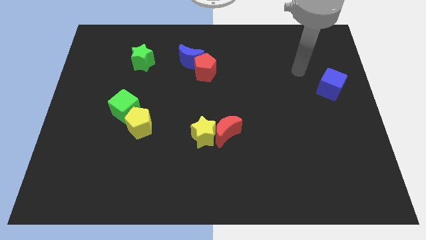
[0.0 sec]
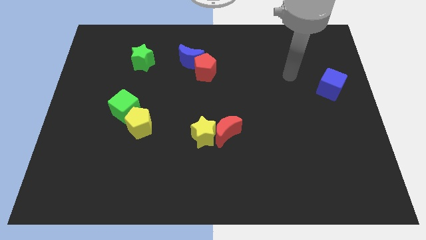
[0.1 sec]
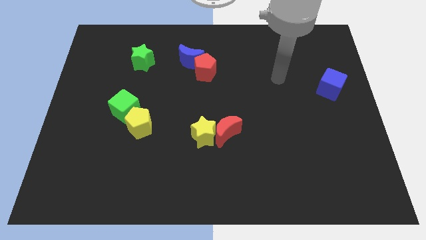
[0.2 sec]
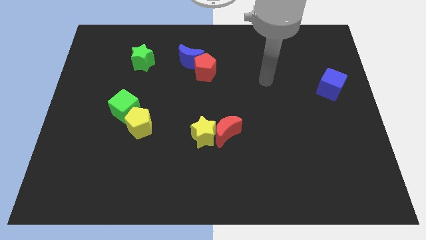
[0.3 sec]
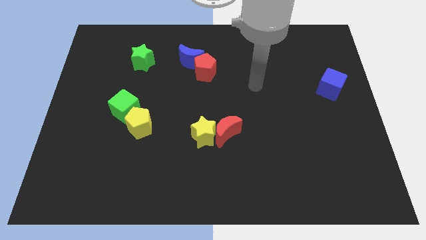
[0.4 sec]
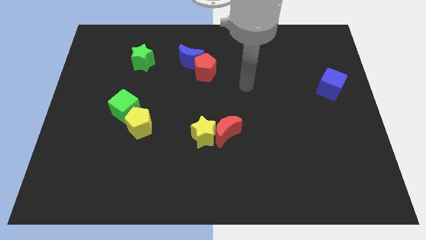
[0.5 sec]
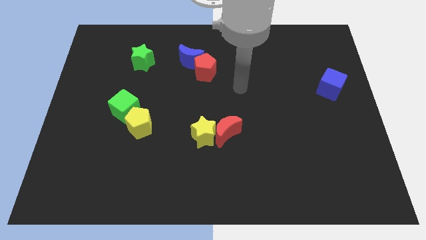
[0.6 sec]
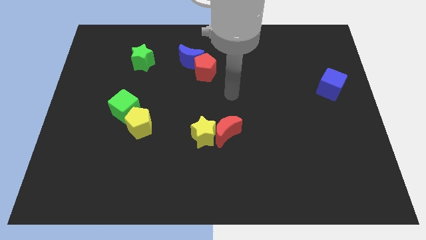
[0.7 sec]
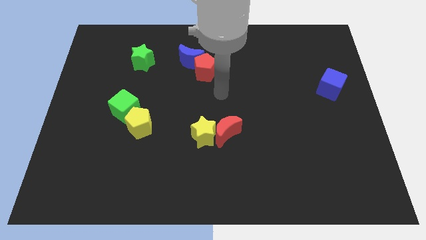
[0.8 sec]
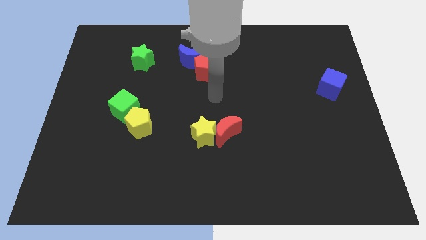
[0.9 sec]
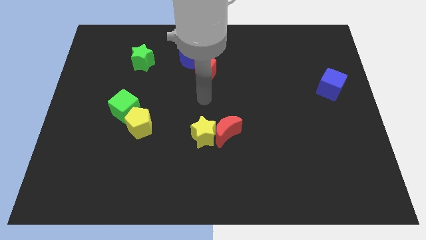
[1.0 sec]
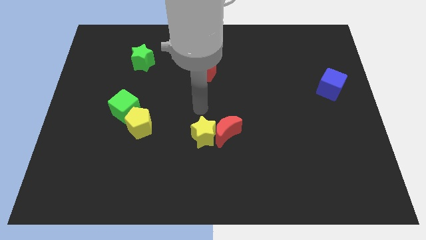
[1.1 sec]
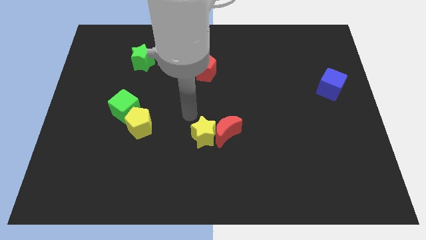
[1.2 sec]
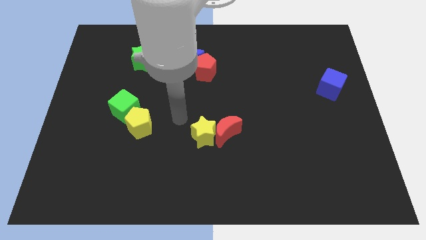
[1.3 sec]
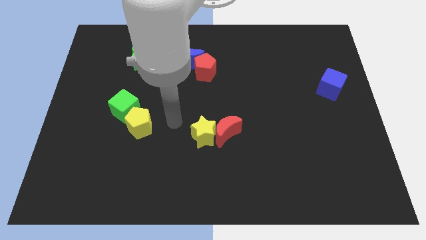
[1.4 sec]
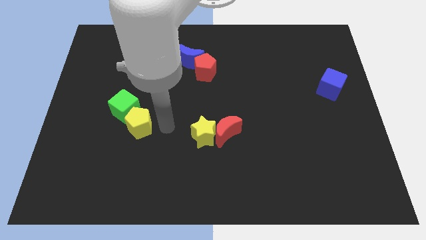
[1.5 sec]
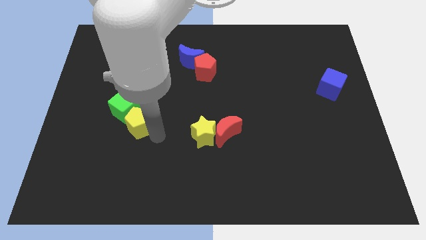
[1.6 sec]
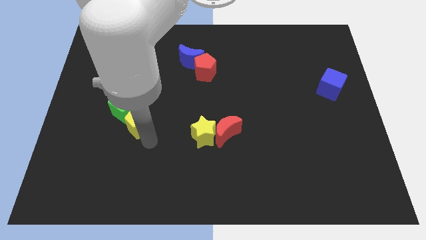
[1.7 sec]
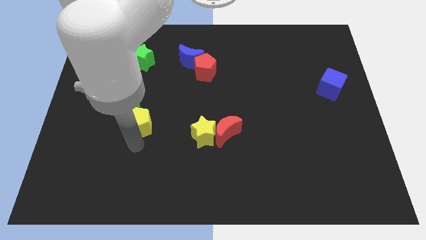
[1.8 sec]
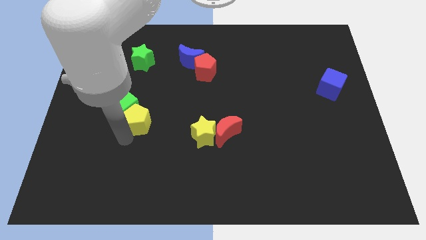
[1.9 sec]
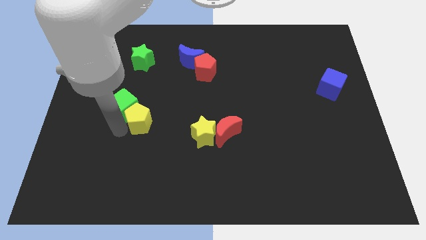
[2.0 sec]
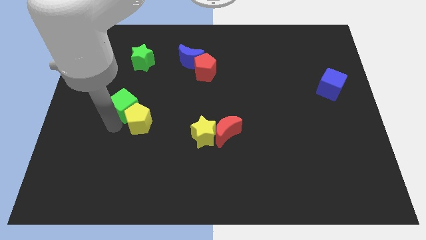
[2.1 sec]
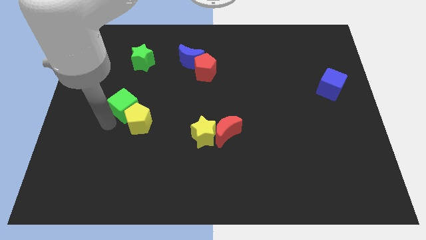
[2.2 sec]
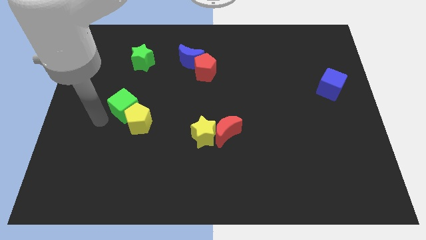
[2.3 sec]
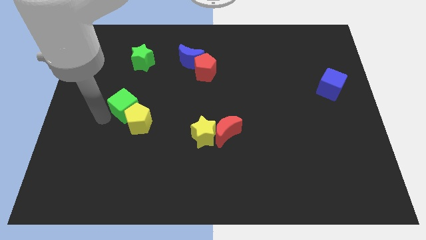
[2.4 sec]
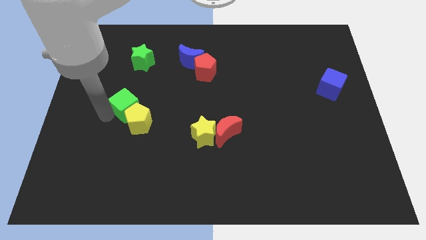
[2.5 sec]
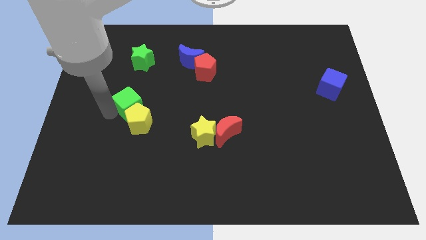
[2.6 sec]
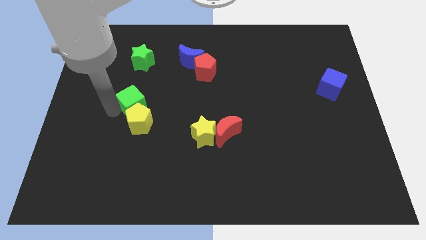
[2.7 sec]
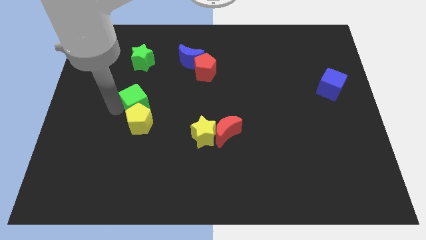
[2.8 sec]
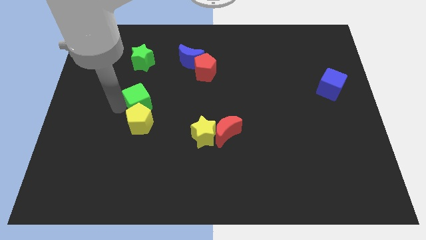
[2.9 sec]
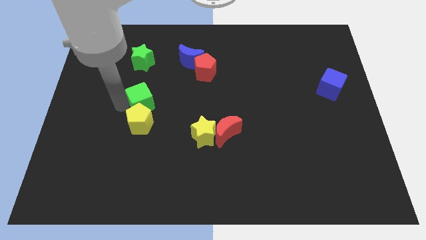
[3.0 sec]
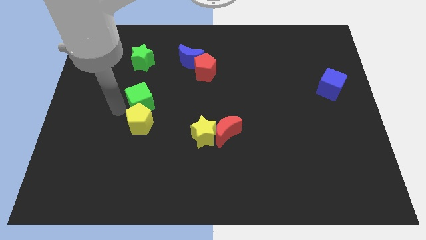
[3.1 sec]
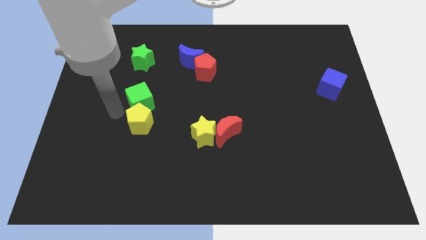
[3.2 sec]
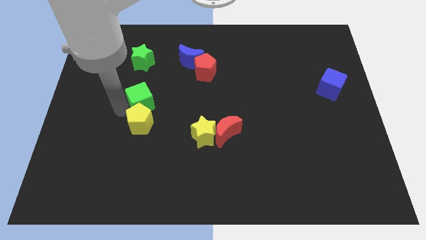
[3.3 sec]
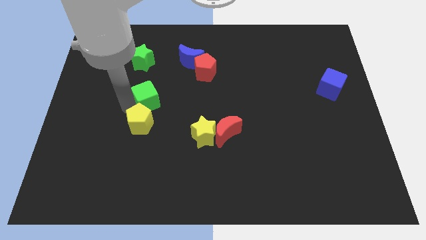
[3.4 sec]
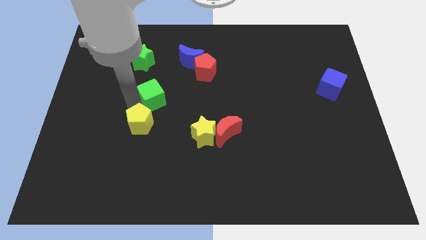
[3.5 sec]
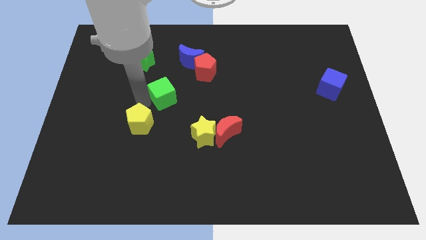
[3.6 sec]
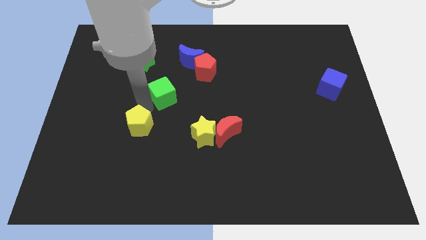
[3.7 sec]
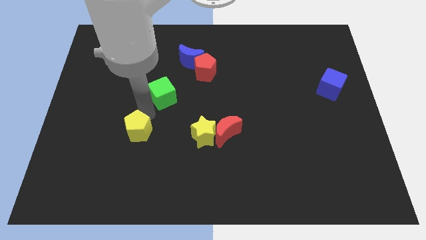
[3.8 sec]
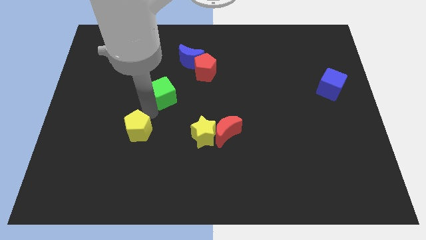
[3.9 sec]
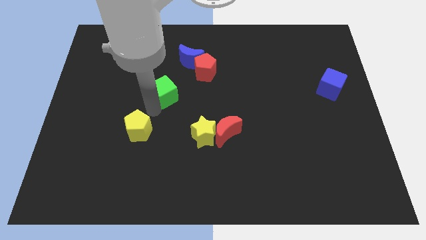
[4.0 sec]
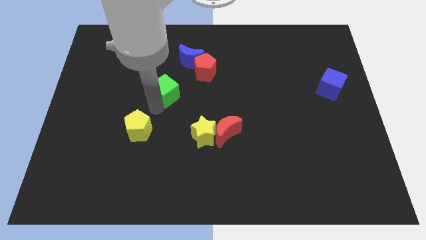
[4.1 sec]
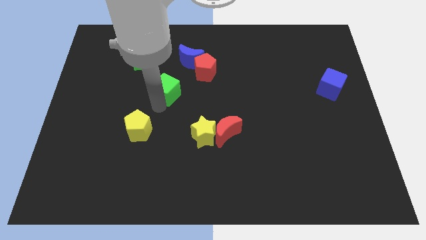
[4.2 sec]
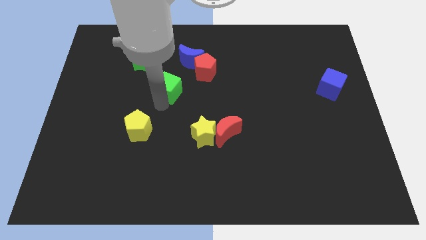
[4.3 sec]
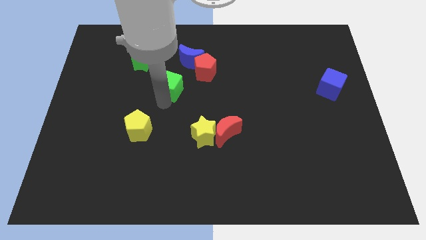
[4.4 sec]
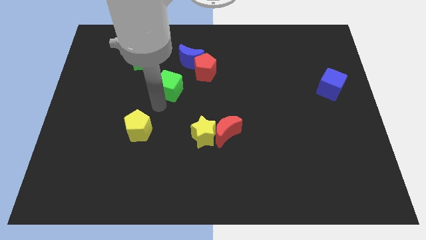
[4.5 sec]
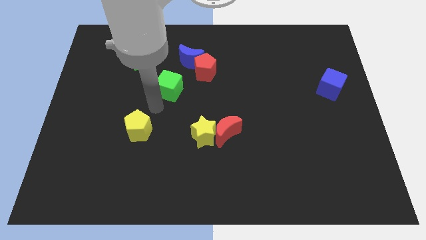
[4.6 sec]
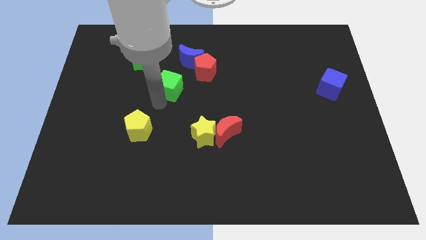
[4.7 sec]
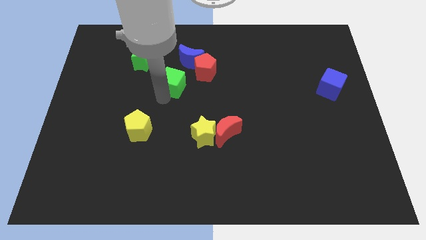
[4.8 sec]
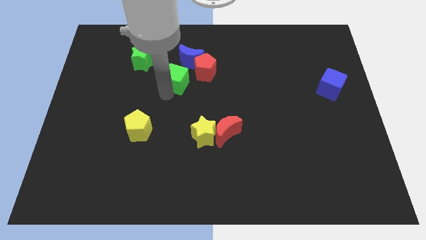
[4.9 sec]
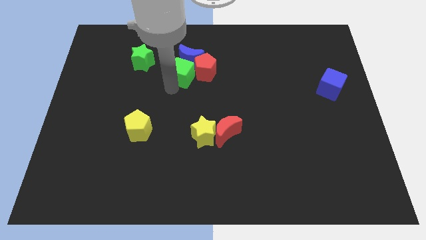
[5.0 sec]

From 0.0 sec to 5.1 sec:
push the green cube next to the blue moon

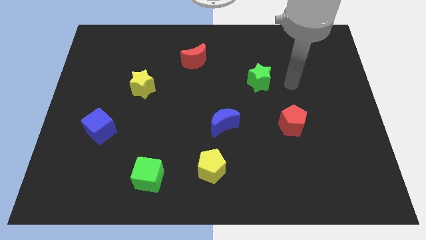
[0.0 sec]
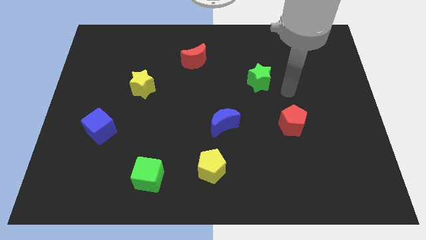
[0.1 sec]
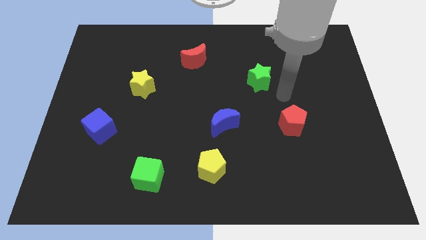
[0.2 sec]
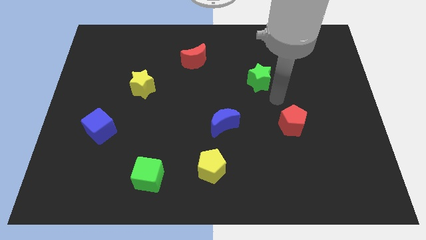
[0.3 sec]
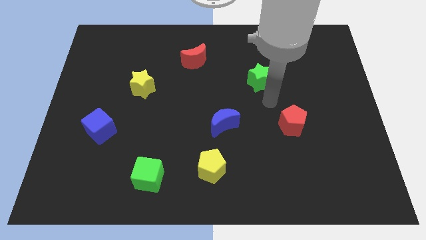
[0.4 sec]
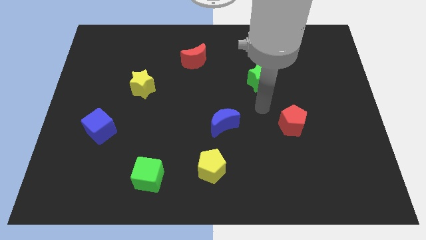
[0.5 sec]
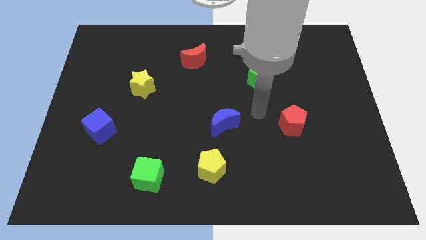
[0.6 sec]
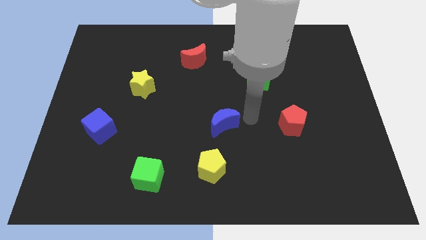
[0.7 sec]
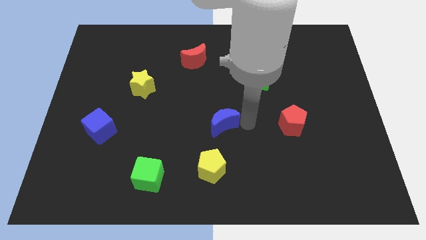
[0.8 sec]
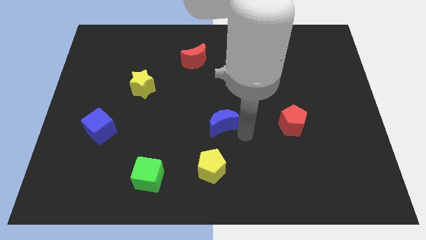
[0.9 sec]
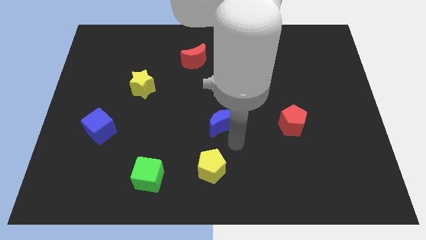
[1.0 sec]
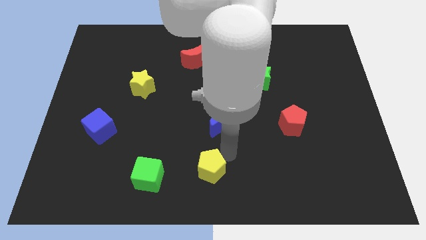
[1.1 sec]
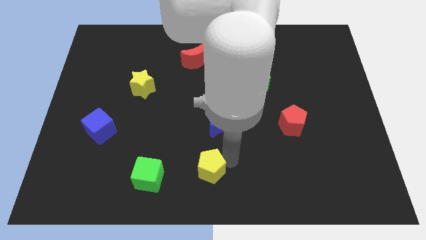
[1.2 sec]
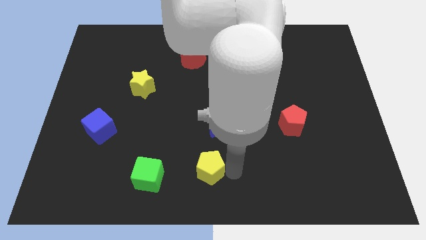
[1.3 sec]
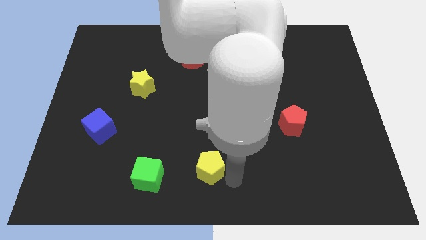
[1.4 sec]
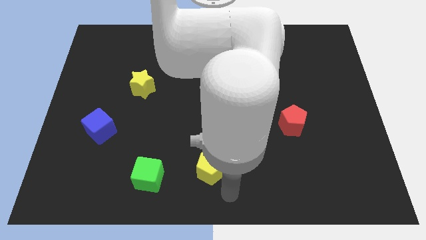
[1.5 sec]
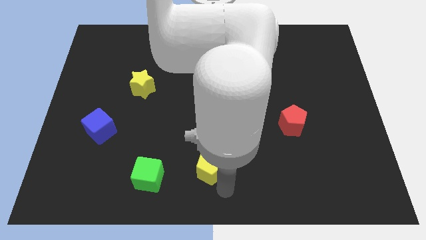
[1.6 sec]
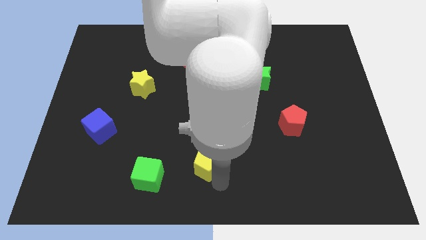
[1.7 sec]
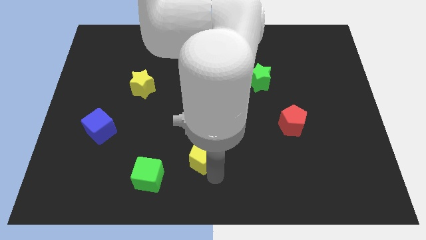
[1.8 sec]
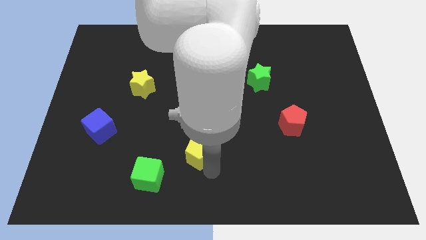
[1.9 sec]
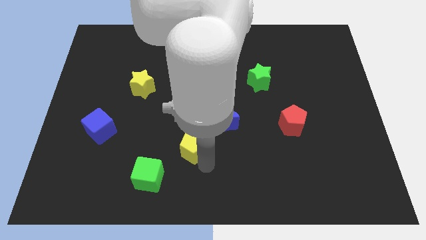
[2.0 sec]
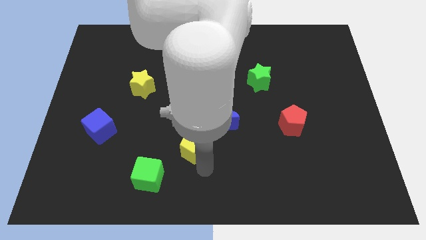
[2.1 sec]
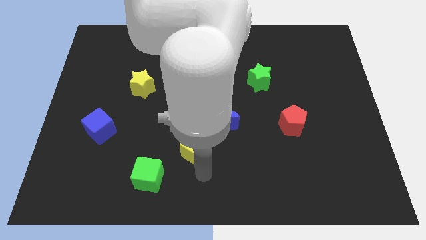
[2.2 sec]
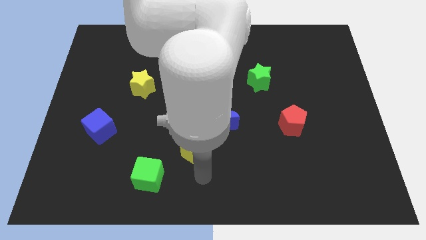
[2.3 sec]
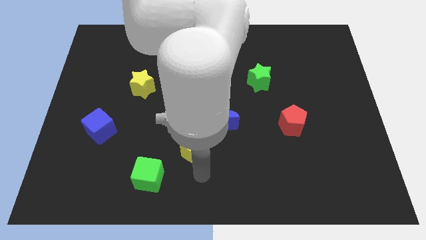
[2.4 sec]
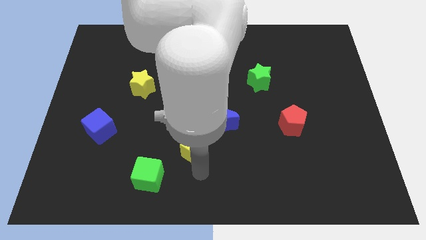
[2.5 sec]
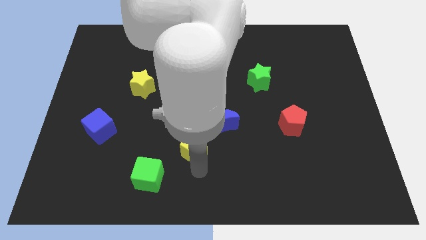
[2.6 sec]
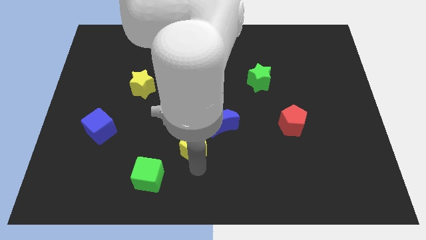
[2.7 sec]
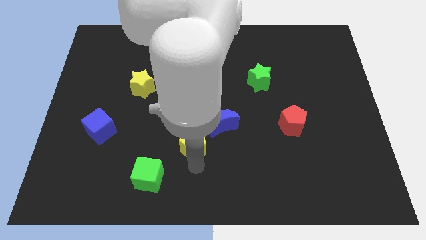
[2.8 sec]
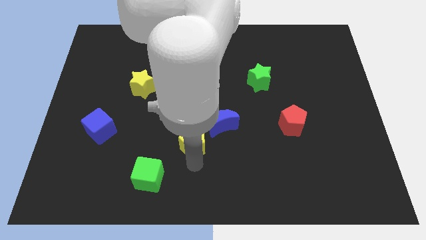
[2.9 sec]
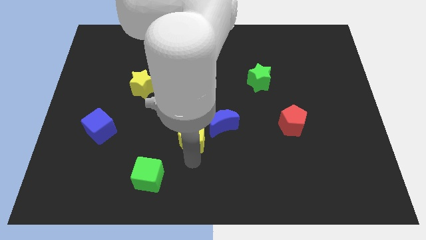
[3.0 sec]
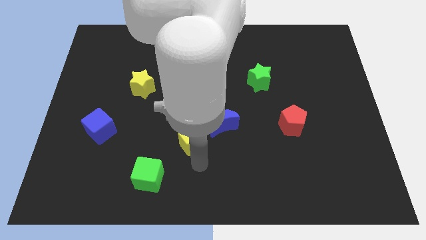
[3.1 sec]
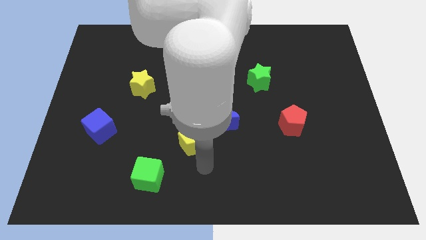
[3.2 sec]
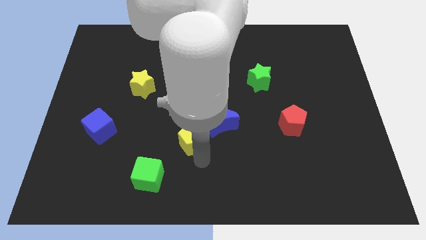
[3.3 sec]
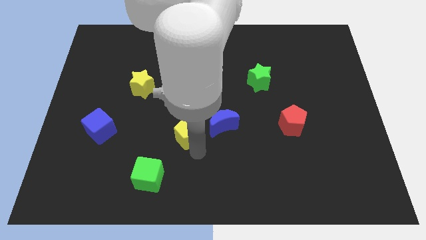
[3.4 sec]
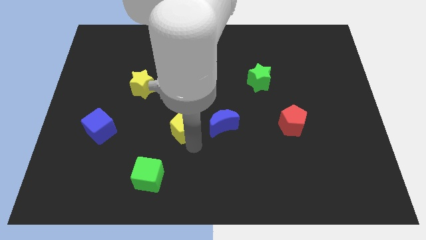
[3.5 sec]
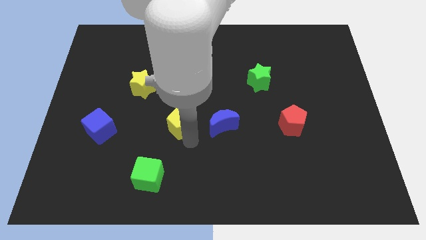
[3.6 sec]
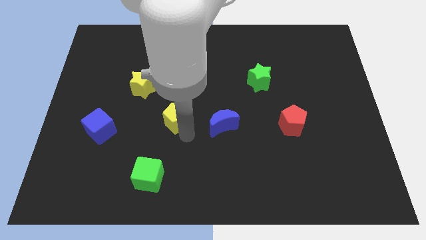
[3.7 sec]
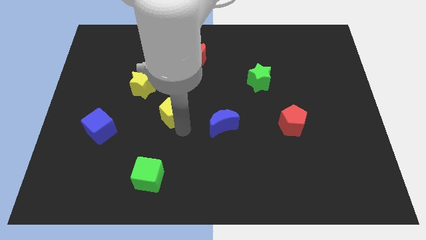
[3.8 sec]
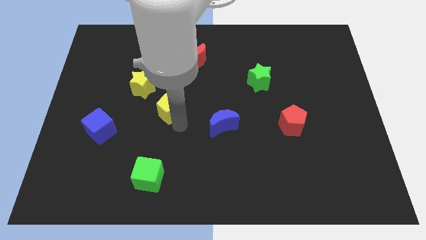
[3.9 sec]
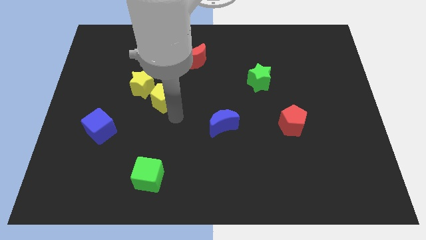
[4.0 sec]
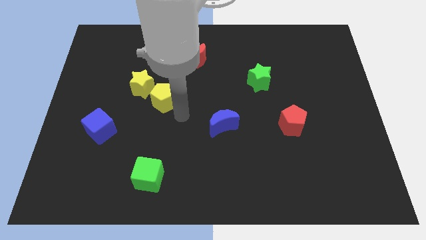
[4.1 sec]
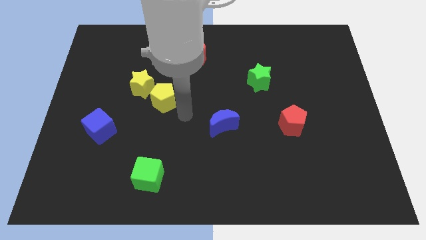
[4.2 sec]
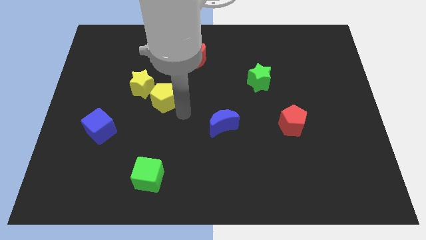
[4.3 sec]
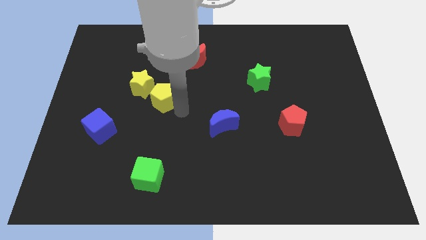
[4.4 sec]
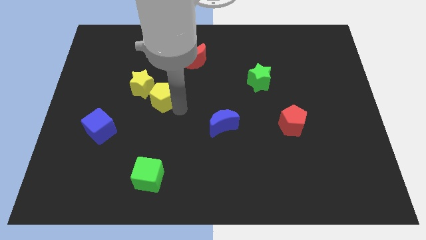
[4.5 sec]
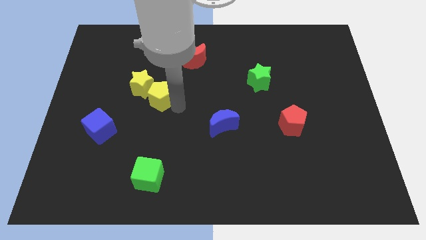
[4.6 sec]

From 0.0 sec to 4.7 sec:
push the yellow pentagon to the yellow star
